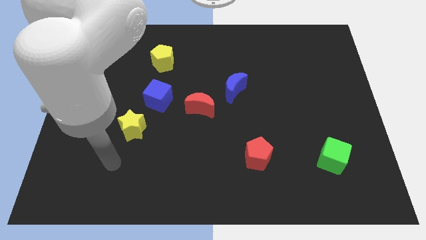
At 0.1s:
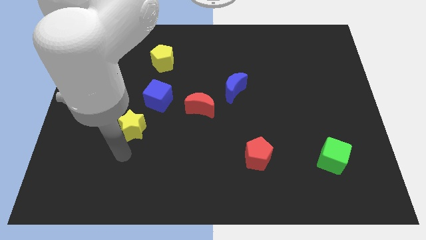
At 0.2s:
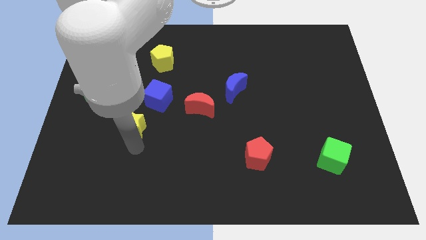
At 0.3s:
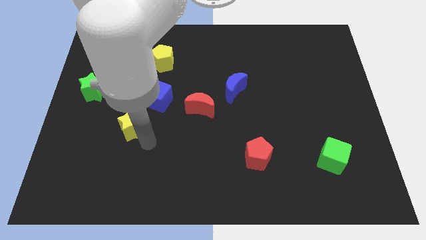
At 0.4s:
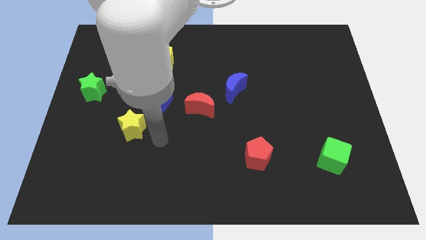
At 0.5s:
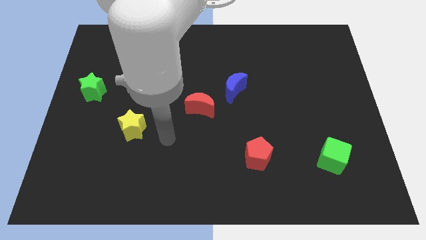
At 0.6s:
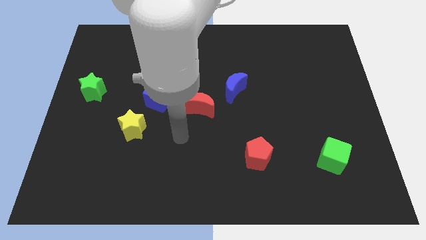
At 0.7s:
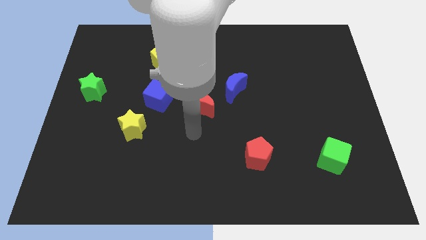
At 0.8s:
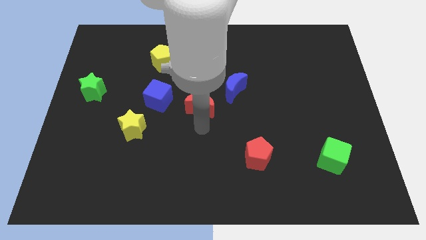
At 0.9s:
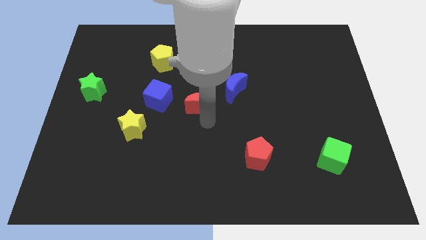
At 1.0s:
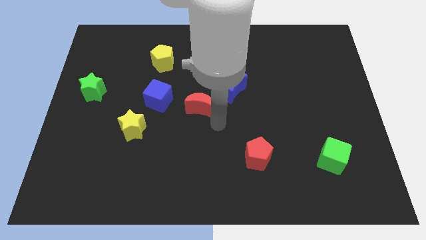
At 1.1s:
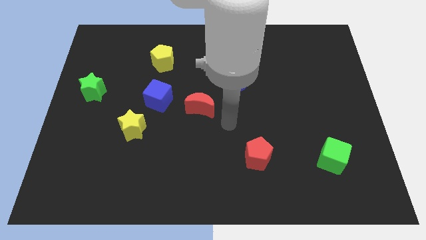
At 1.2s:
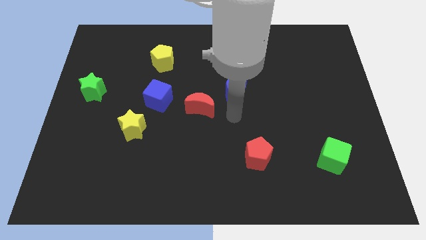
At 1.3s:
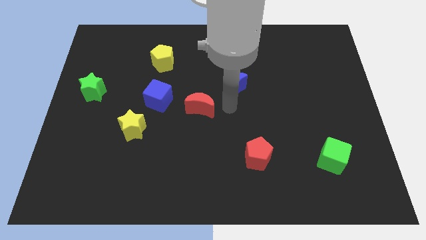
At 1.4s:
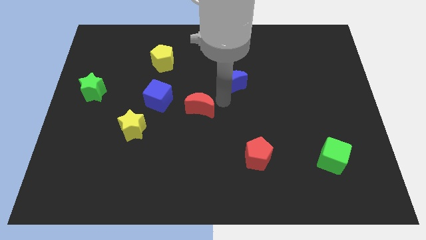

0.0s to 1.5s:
move the red moon away from the blue moon

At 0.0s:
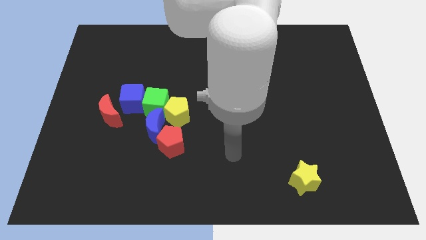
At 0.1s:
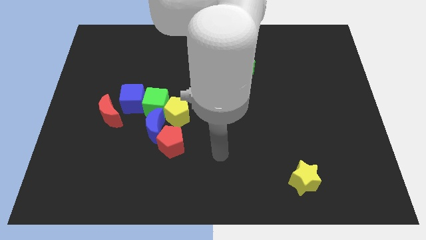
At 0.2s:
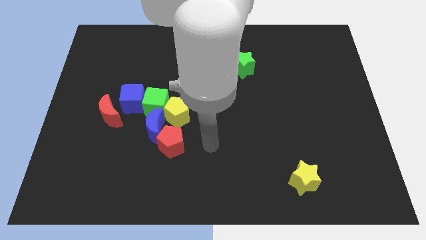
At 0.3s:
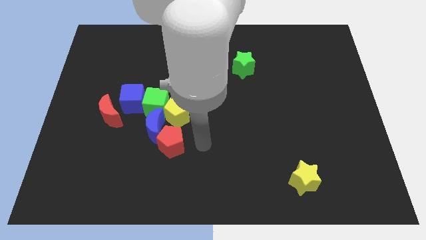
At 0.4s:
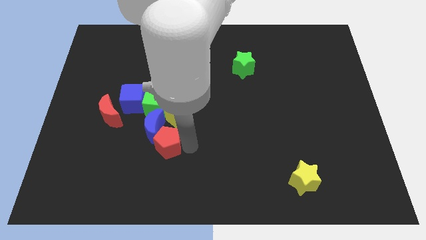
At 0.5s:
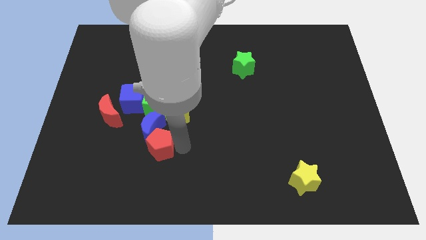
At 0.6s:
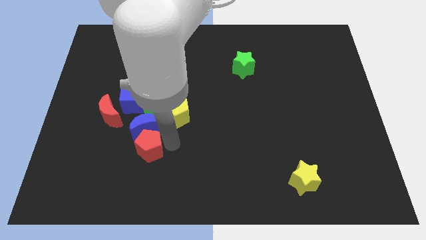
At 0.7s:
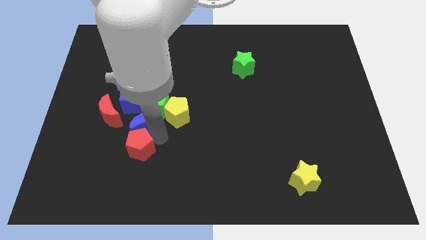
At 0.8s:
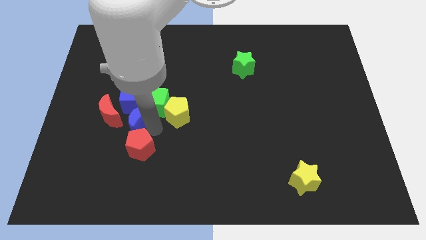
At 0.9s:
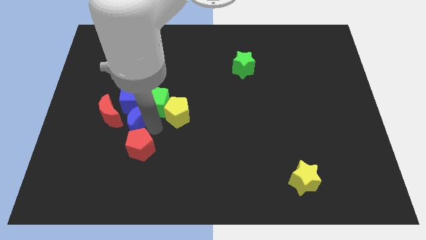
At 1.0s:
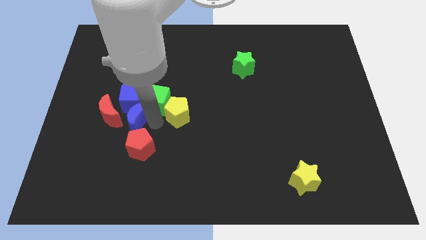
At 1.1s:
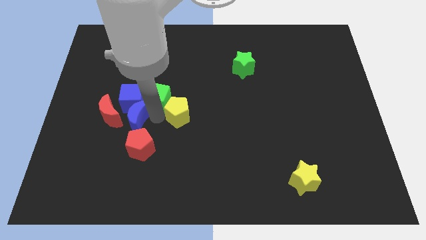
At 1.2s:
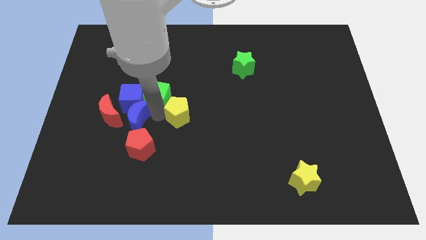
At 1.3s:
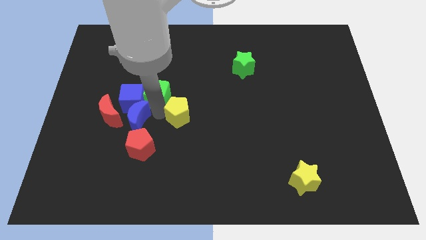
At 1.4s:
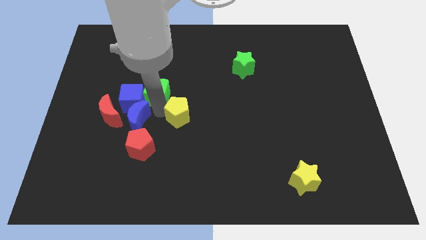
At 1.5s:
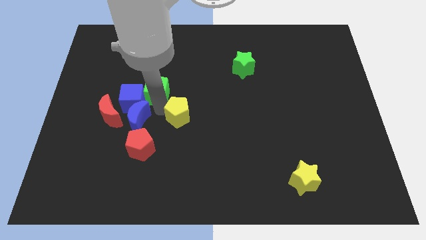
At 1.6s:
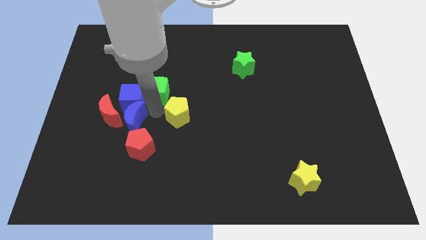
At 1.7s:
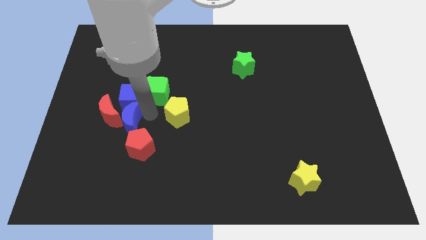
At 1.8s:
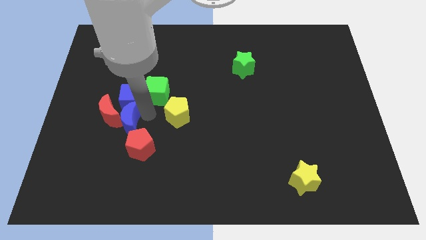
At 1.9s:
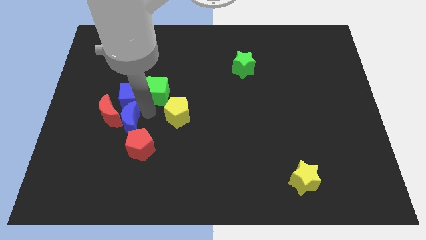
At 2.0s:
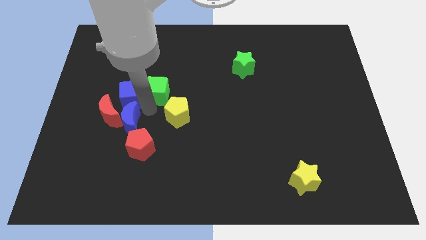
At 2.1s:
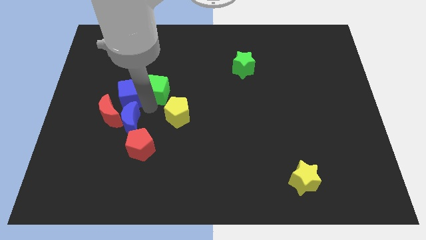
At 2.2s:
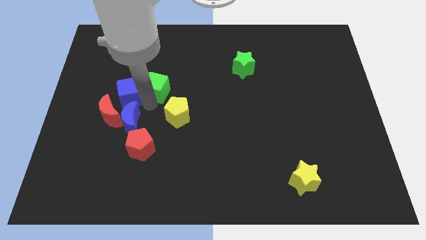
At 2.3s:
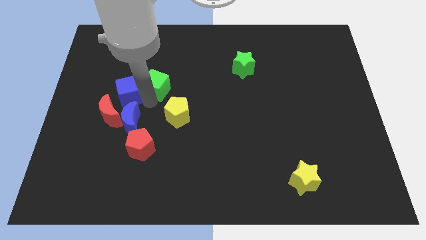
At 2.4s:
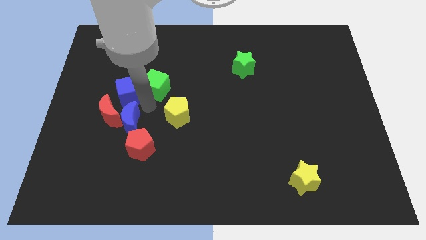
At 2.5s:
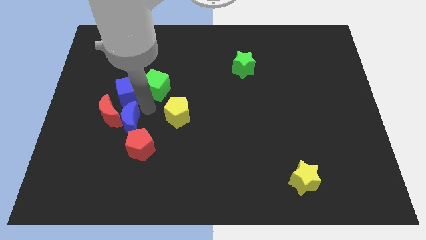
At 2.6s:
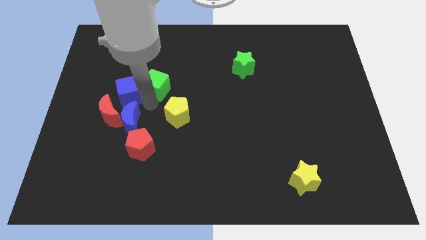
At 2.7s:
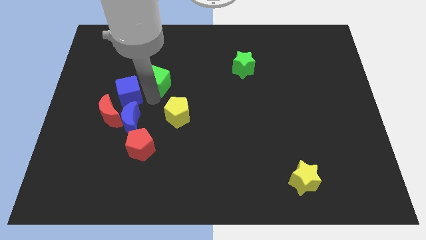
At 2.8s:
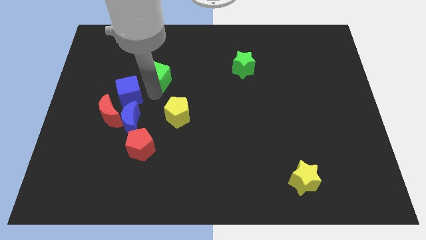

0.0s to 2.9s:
separate the green cube from the group

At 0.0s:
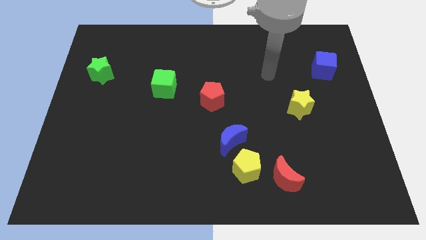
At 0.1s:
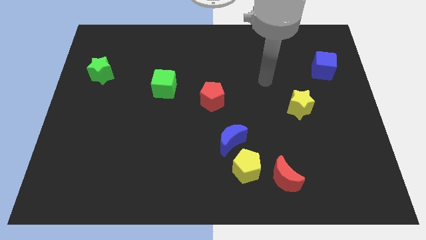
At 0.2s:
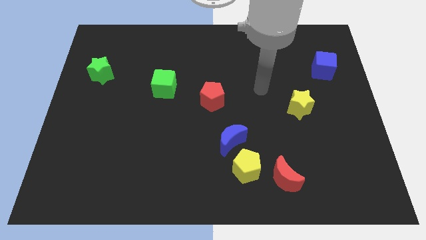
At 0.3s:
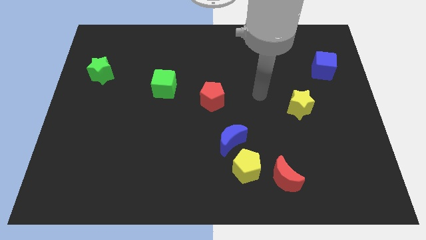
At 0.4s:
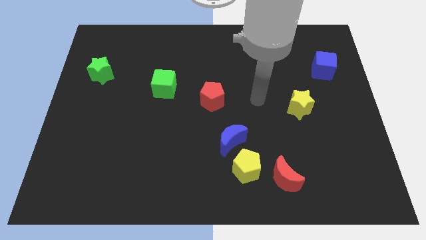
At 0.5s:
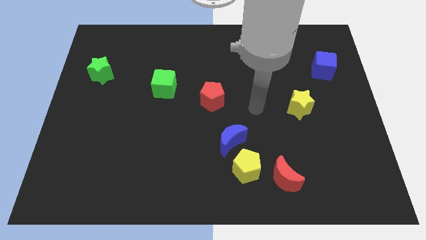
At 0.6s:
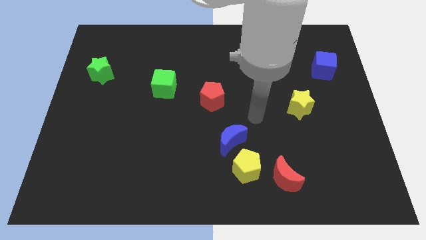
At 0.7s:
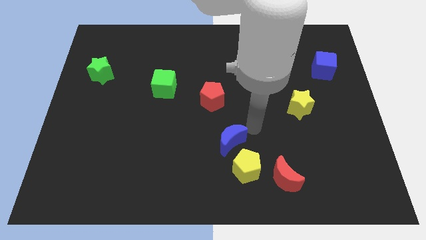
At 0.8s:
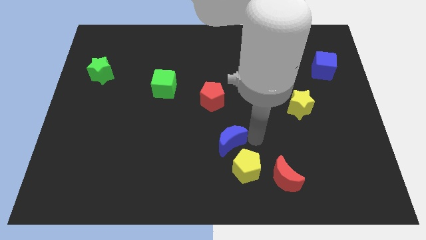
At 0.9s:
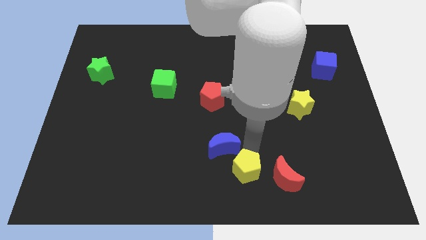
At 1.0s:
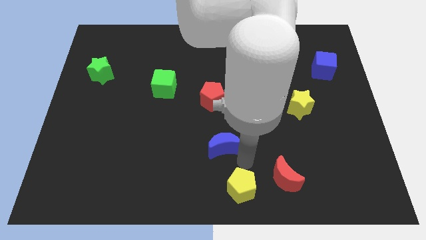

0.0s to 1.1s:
separate the blue moon from the yellow pentagon

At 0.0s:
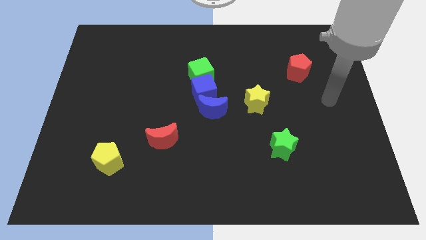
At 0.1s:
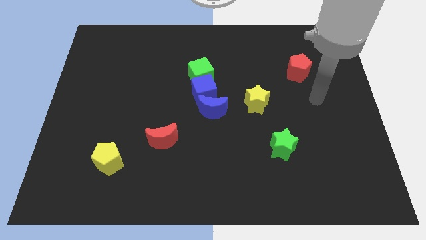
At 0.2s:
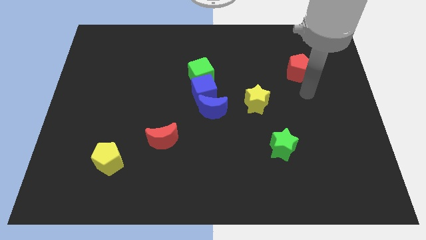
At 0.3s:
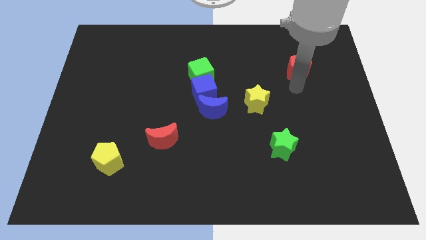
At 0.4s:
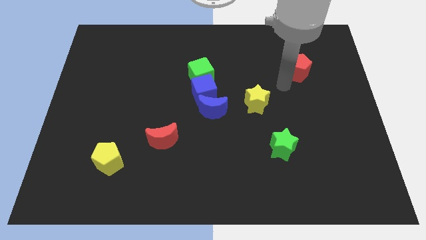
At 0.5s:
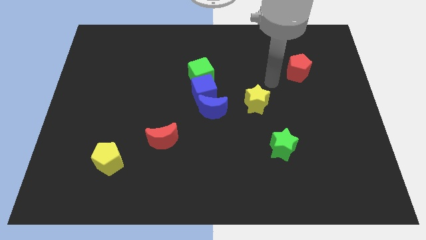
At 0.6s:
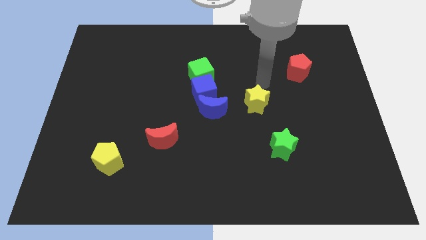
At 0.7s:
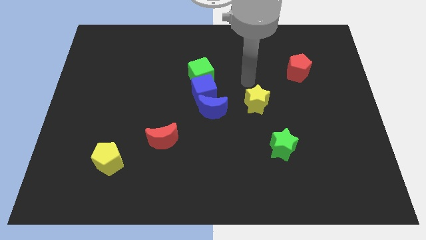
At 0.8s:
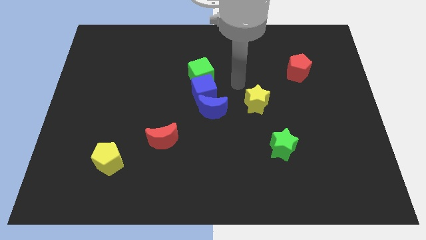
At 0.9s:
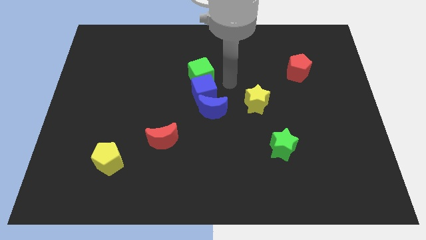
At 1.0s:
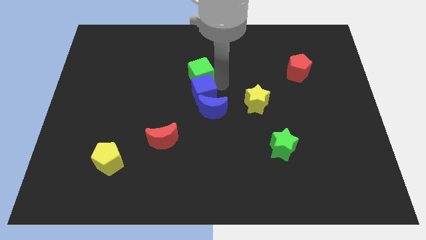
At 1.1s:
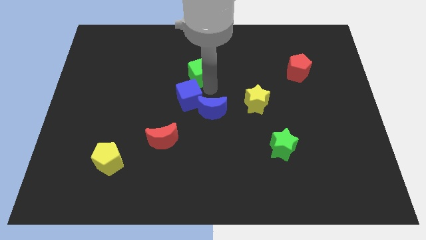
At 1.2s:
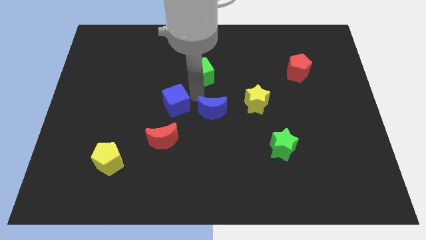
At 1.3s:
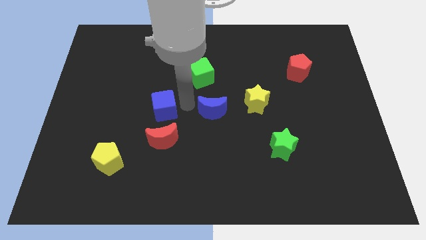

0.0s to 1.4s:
move the blue moon away from the blue cube

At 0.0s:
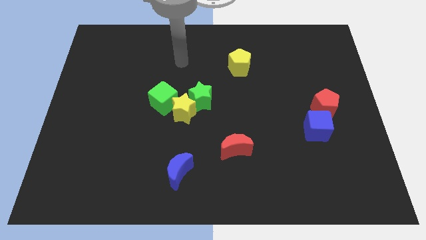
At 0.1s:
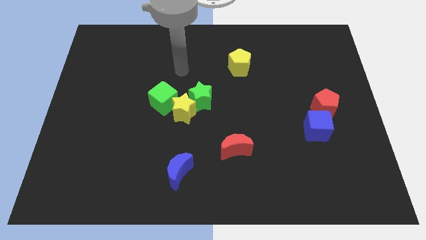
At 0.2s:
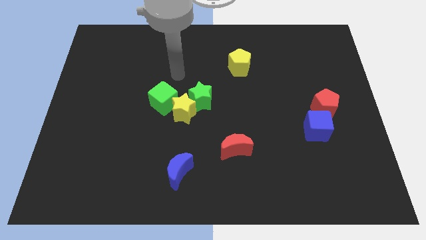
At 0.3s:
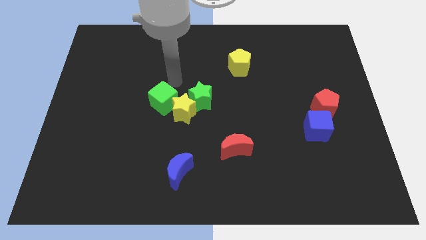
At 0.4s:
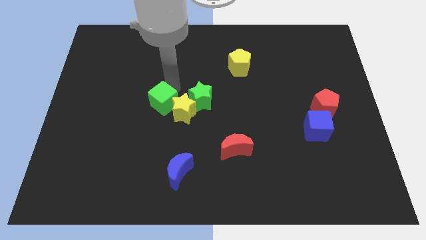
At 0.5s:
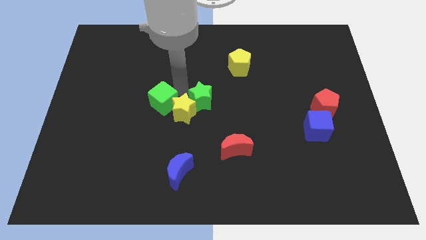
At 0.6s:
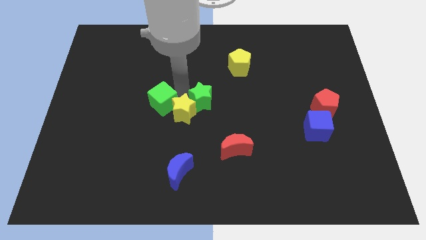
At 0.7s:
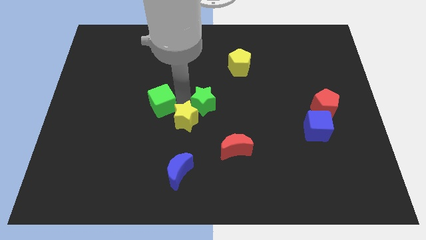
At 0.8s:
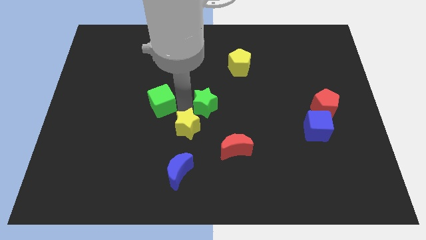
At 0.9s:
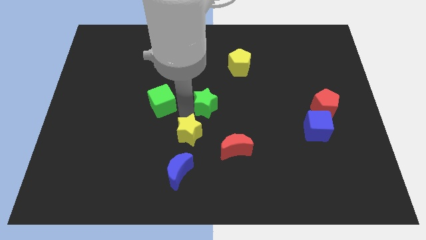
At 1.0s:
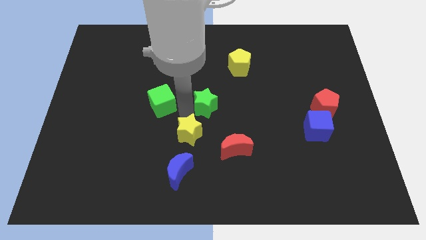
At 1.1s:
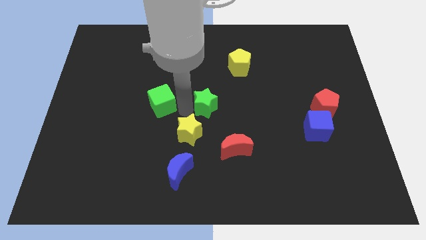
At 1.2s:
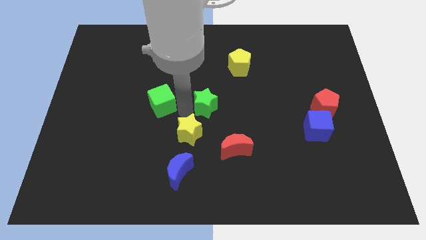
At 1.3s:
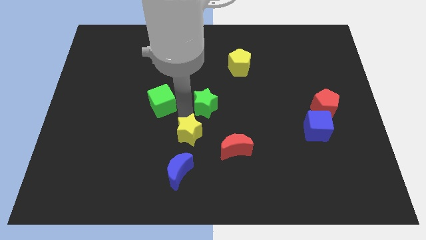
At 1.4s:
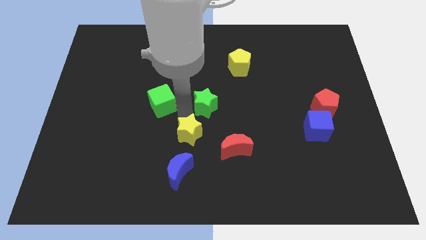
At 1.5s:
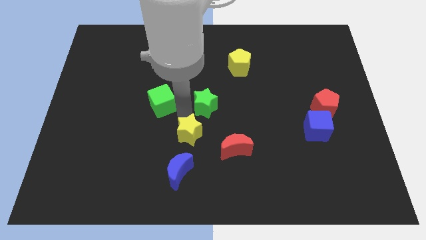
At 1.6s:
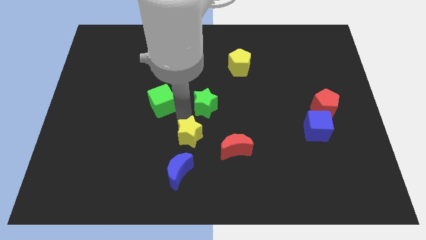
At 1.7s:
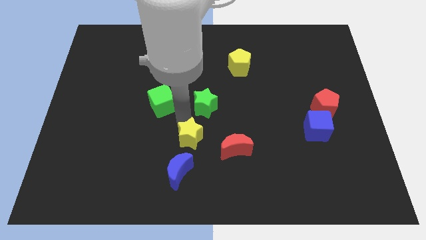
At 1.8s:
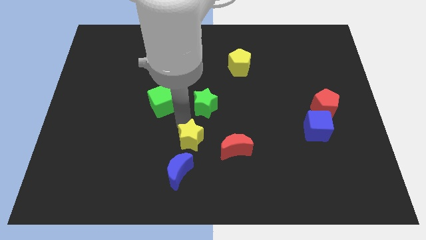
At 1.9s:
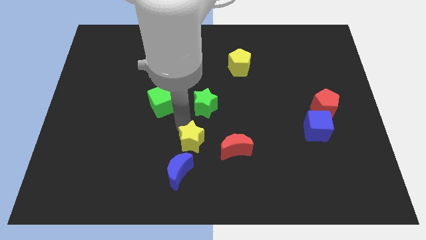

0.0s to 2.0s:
separate the yellow star from the green star and green cube

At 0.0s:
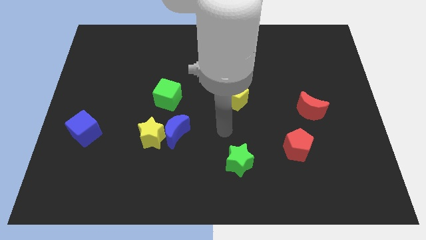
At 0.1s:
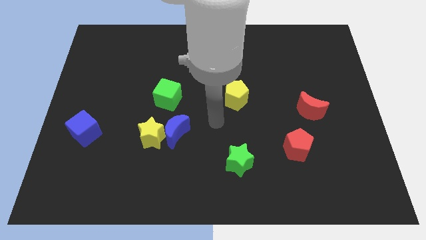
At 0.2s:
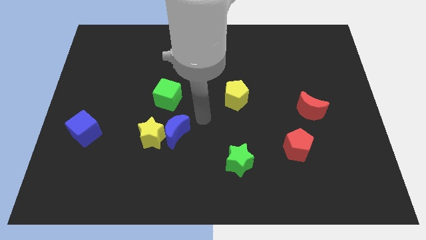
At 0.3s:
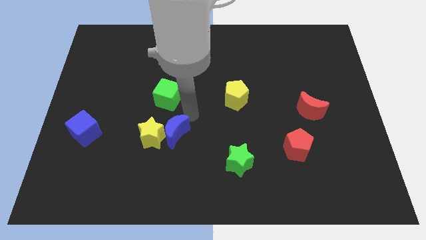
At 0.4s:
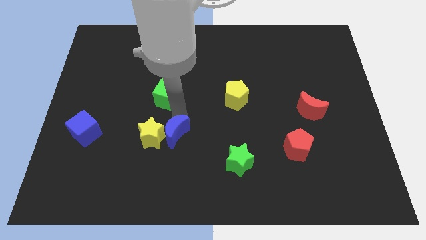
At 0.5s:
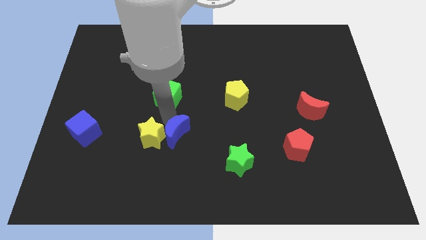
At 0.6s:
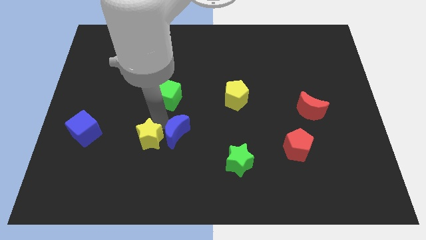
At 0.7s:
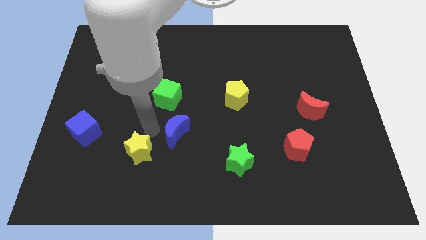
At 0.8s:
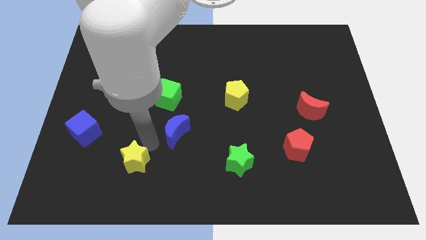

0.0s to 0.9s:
separate the blue moon from the yellow star
